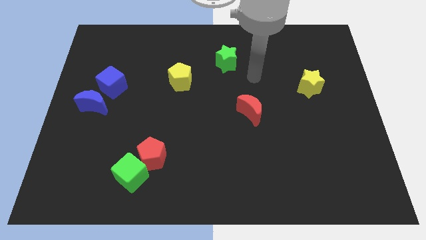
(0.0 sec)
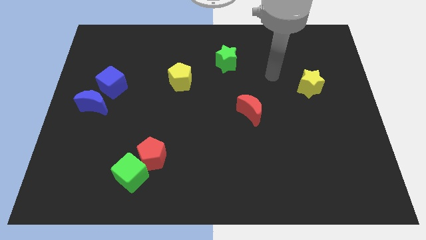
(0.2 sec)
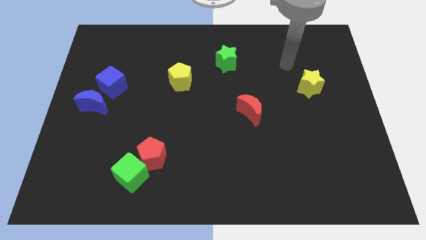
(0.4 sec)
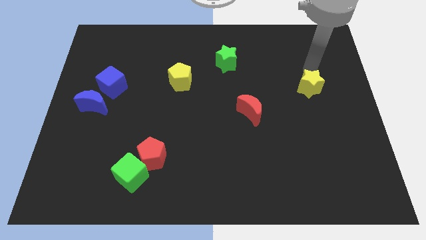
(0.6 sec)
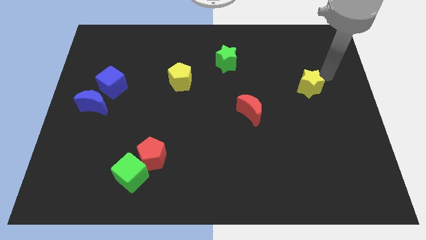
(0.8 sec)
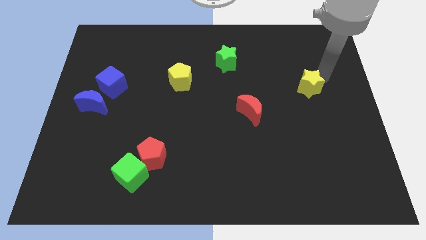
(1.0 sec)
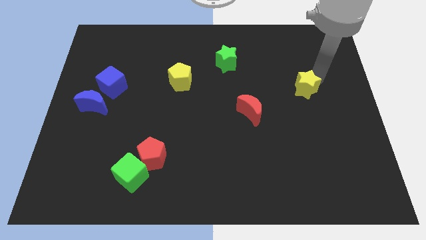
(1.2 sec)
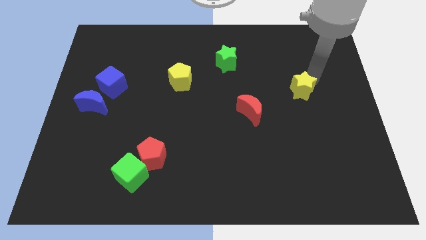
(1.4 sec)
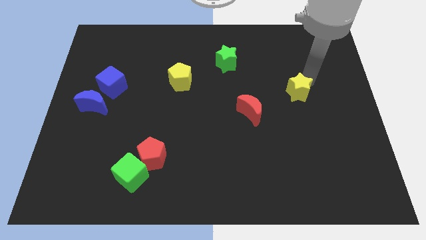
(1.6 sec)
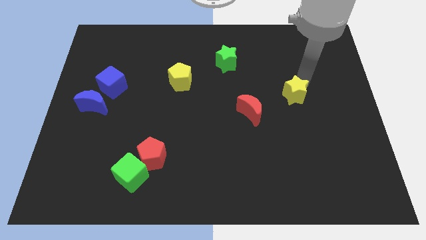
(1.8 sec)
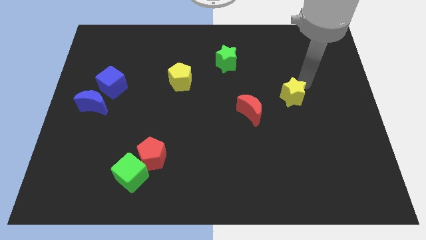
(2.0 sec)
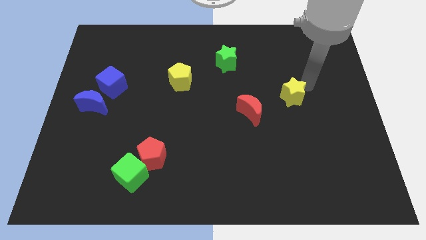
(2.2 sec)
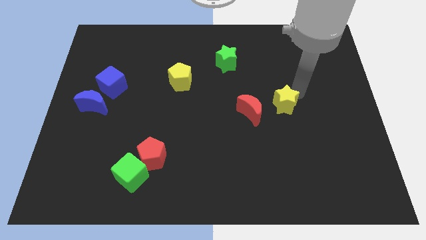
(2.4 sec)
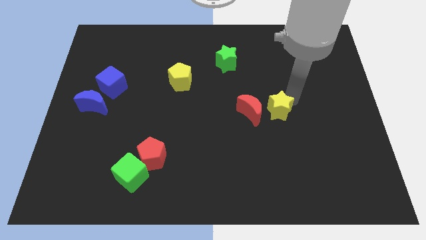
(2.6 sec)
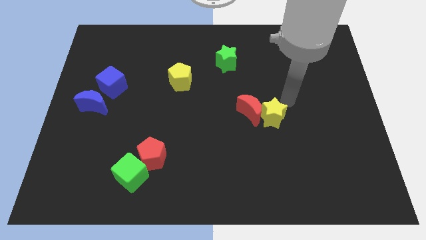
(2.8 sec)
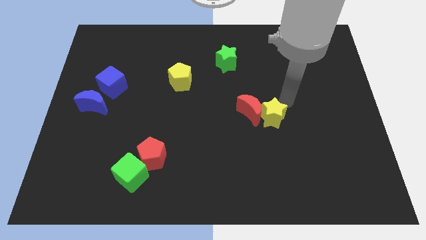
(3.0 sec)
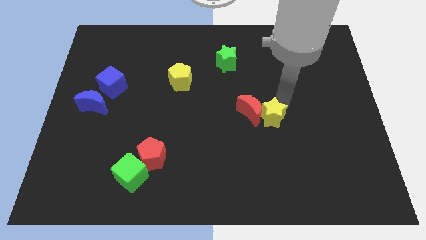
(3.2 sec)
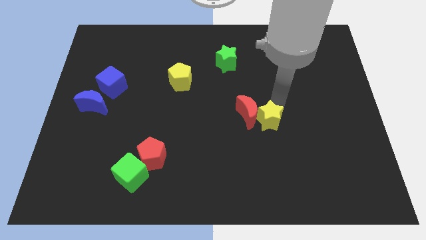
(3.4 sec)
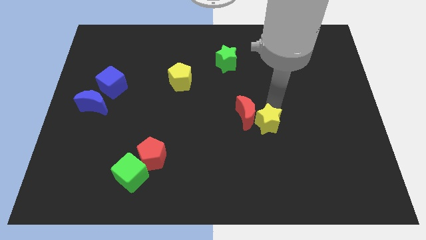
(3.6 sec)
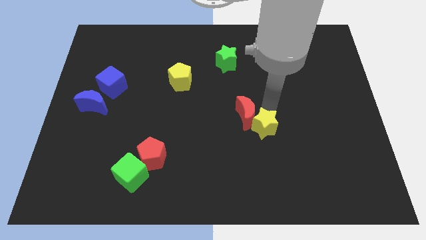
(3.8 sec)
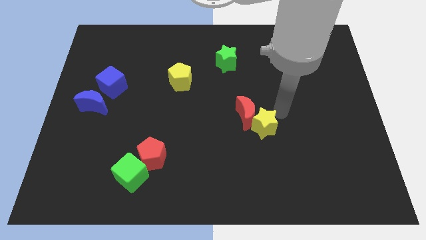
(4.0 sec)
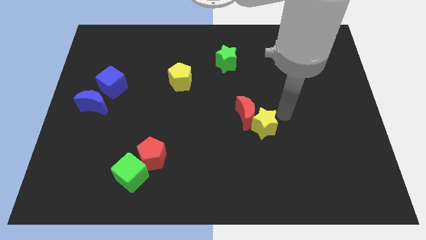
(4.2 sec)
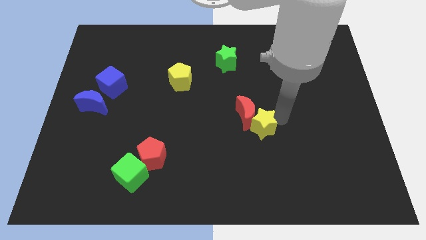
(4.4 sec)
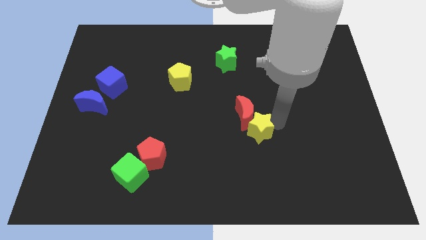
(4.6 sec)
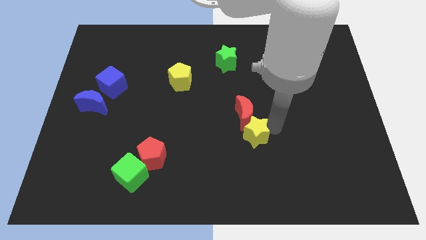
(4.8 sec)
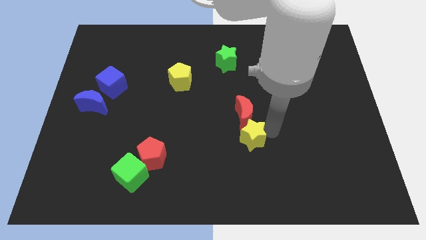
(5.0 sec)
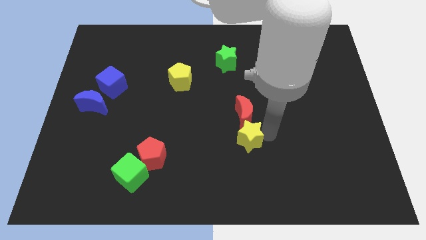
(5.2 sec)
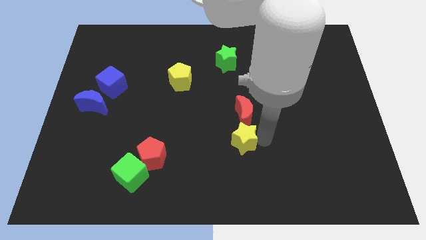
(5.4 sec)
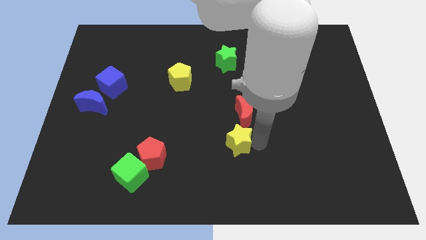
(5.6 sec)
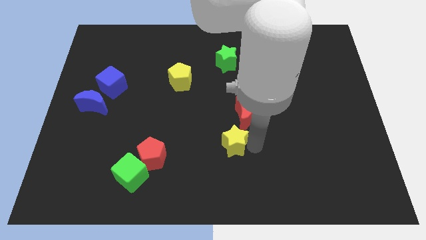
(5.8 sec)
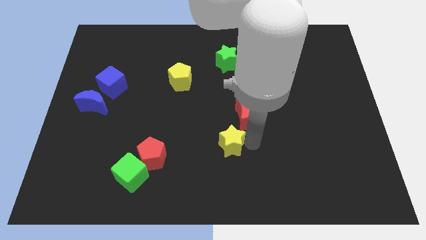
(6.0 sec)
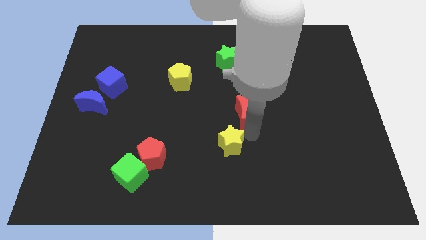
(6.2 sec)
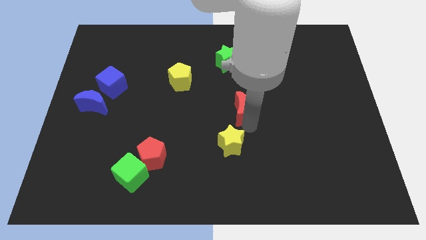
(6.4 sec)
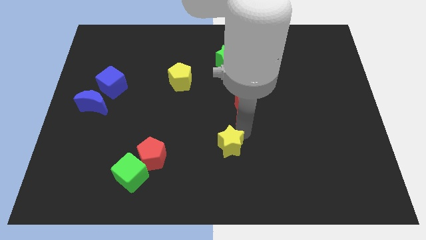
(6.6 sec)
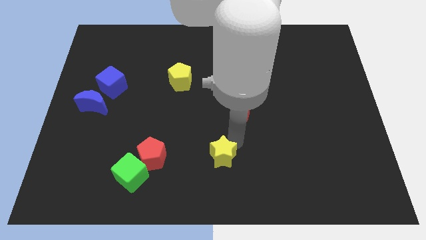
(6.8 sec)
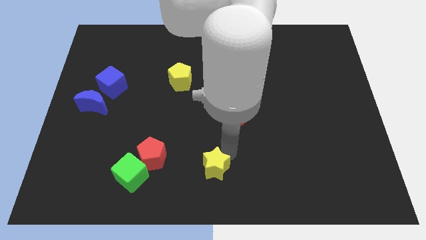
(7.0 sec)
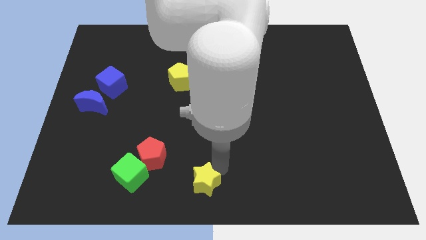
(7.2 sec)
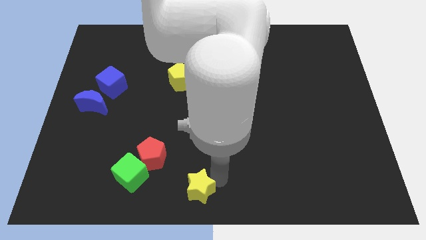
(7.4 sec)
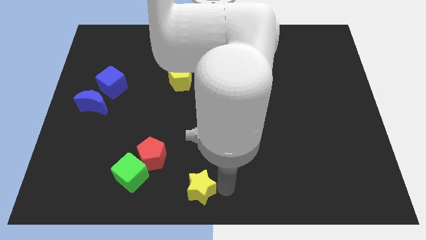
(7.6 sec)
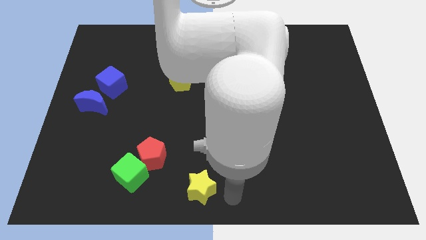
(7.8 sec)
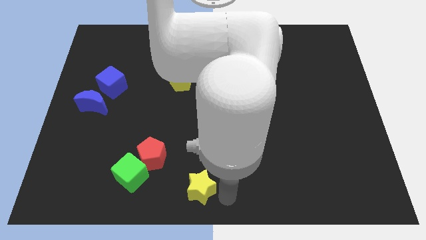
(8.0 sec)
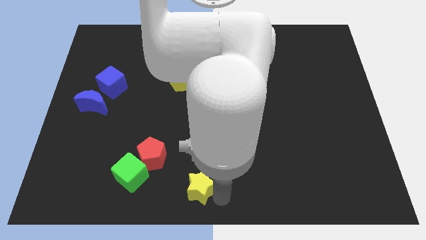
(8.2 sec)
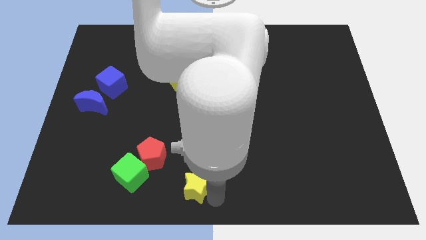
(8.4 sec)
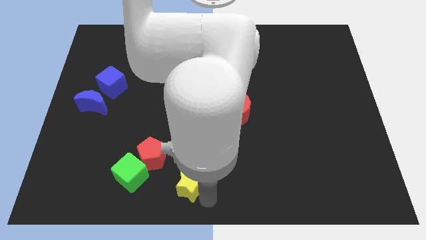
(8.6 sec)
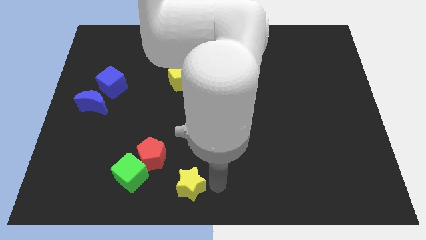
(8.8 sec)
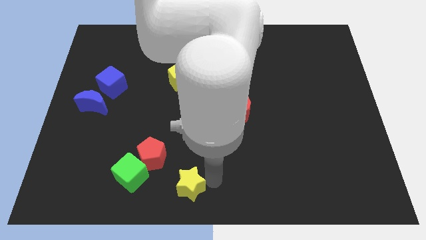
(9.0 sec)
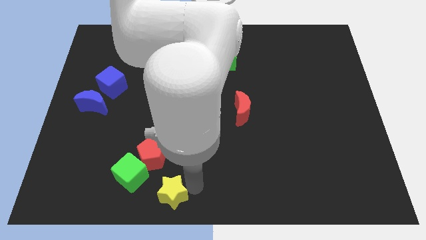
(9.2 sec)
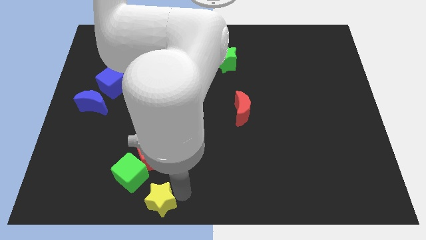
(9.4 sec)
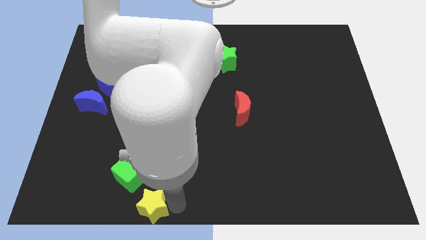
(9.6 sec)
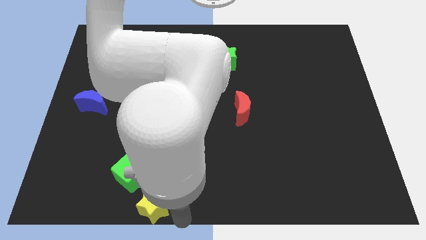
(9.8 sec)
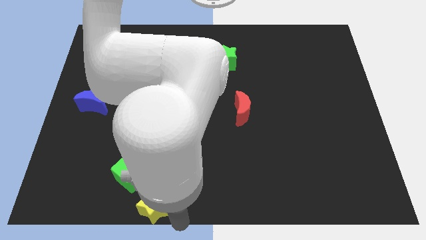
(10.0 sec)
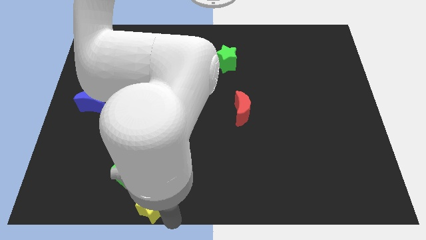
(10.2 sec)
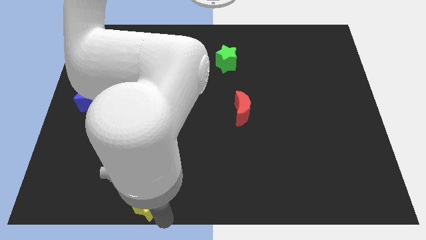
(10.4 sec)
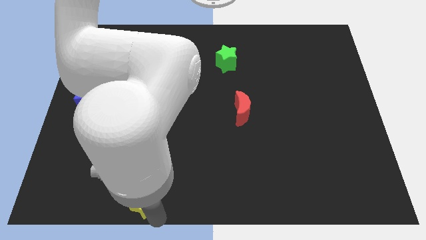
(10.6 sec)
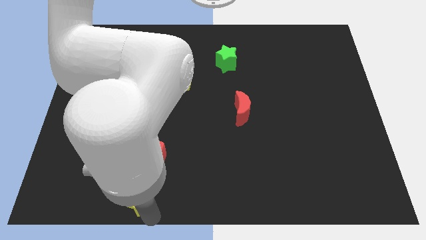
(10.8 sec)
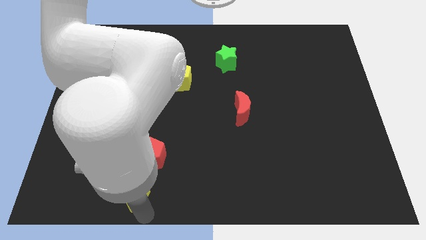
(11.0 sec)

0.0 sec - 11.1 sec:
push the yellow star to the bottom left of the red pentagon

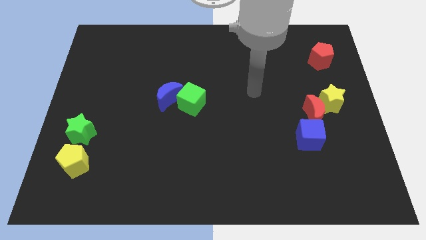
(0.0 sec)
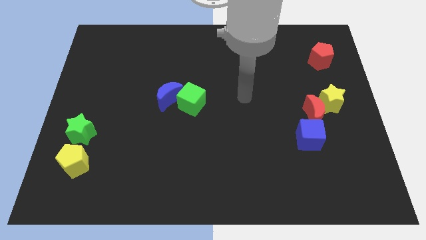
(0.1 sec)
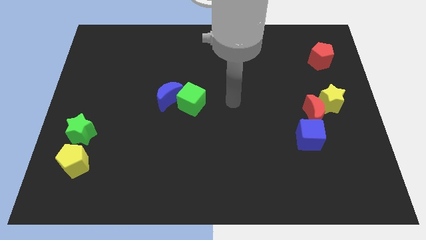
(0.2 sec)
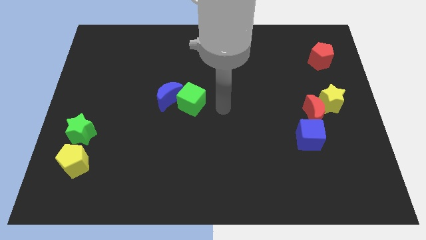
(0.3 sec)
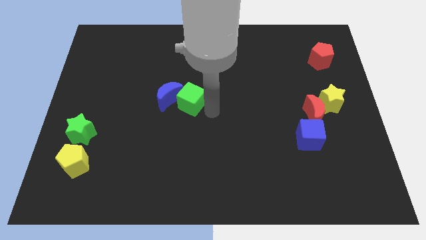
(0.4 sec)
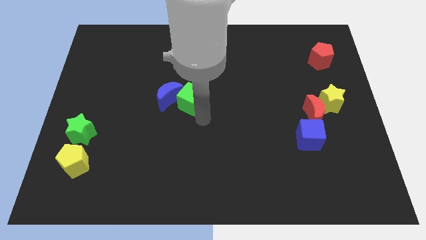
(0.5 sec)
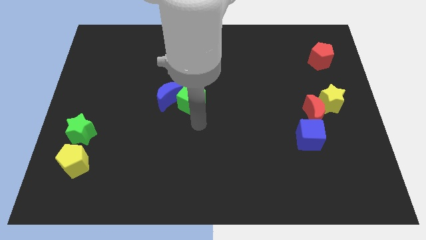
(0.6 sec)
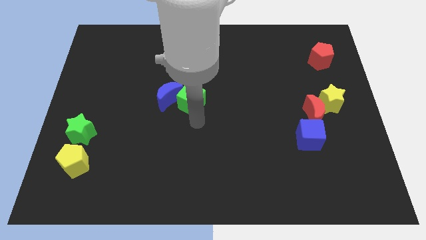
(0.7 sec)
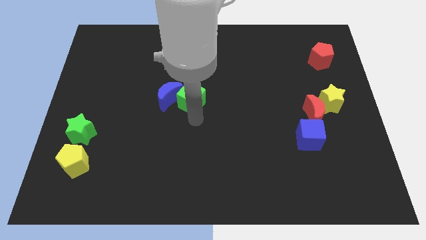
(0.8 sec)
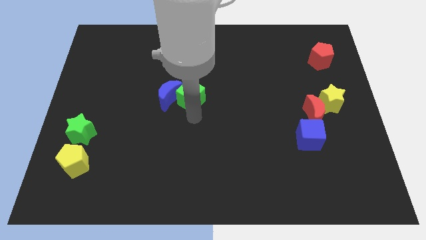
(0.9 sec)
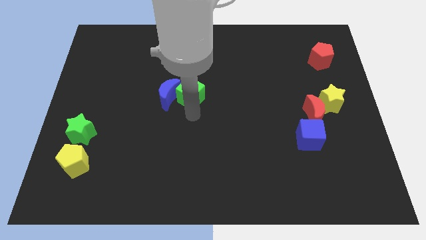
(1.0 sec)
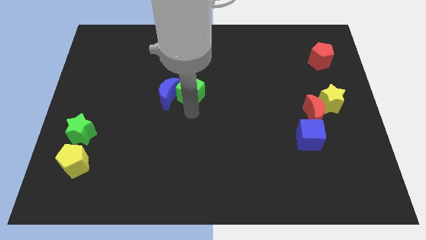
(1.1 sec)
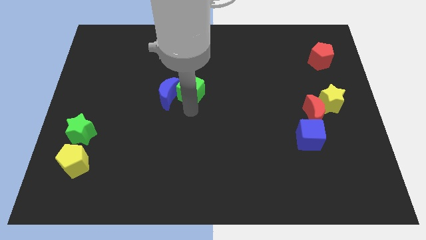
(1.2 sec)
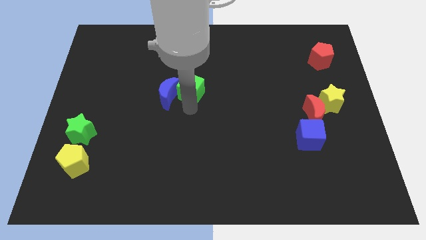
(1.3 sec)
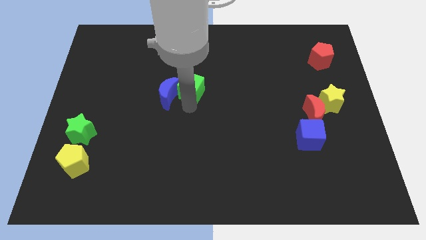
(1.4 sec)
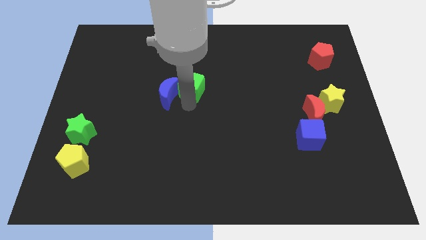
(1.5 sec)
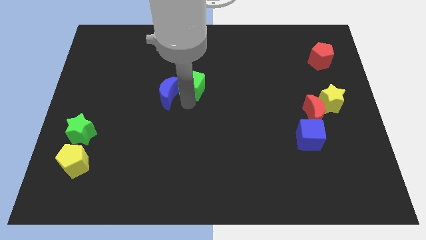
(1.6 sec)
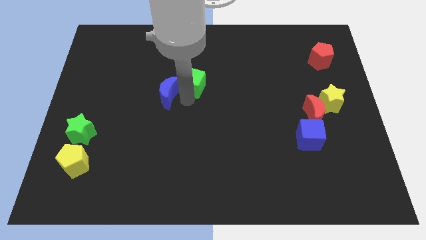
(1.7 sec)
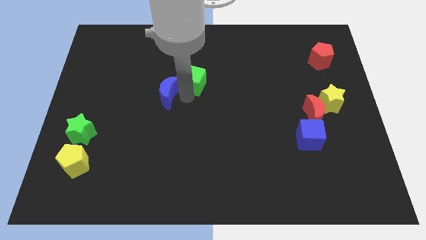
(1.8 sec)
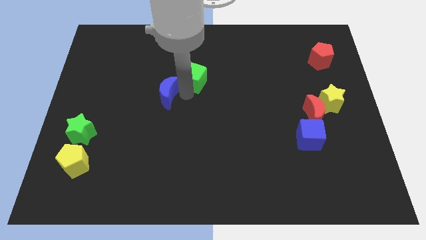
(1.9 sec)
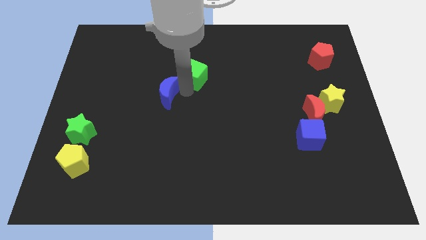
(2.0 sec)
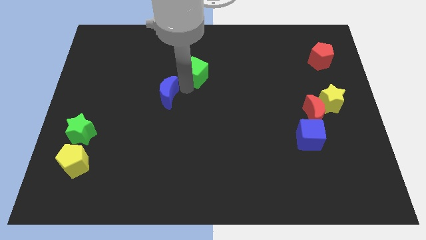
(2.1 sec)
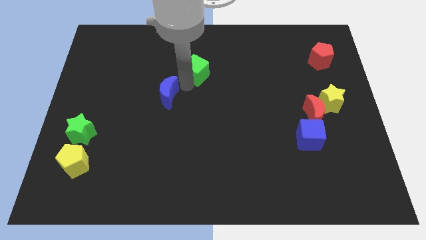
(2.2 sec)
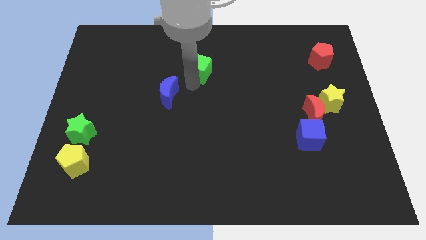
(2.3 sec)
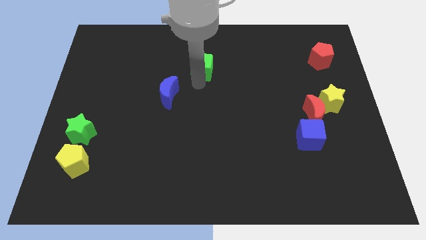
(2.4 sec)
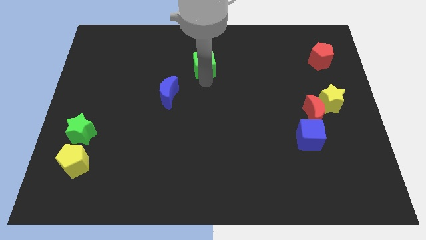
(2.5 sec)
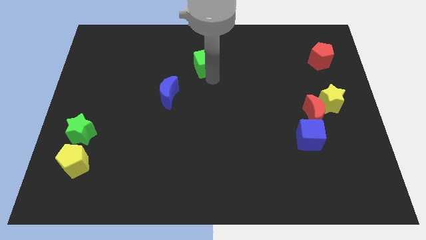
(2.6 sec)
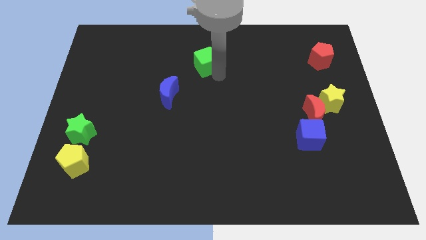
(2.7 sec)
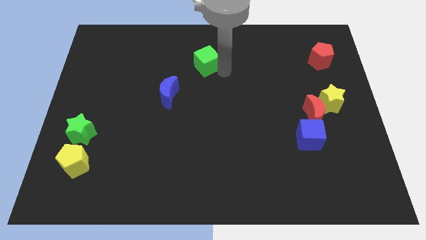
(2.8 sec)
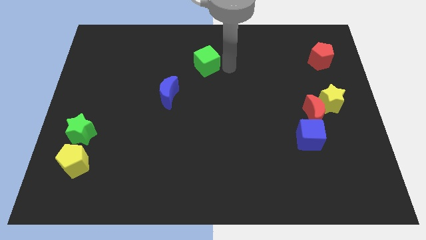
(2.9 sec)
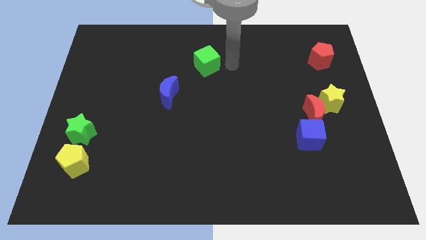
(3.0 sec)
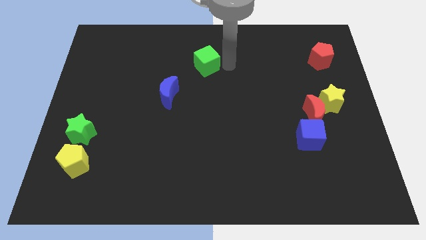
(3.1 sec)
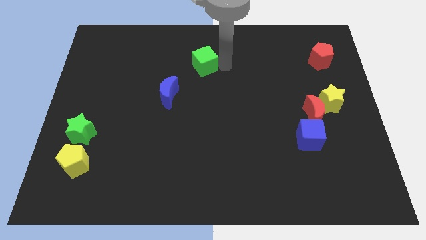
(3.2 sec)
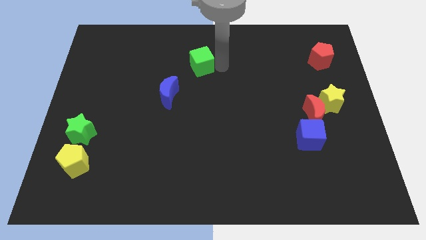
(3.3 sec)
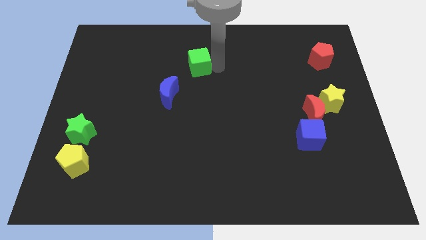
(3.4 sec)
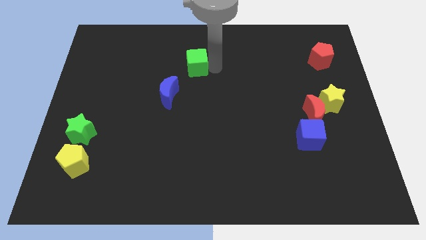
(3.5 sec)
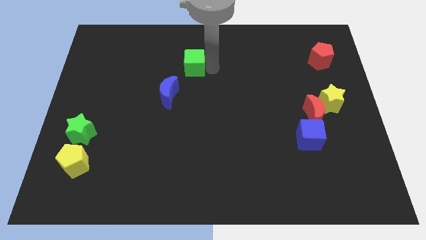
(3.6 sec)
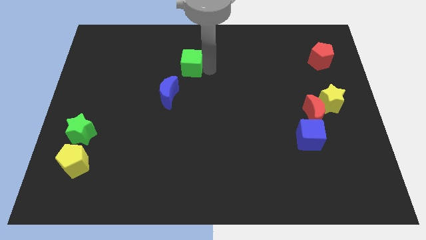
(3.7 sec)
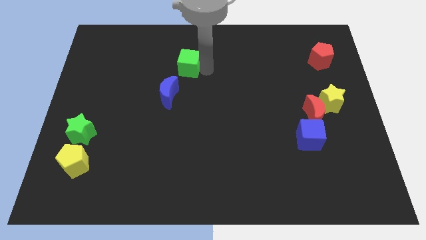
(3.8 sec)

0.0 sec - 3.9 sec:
slide the green cube above the blue moon
